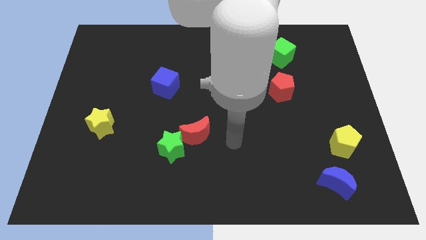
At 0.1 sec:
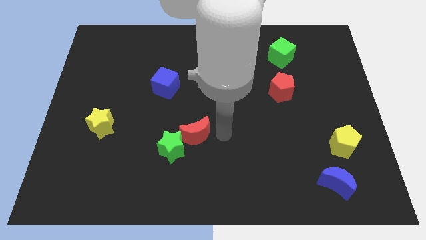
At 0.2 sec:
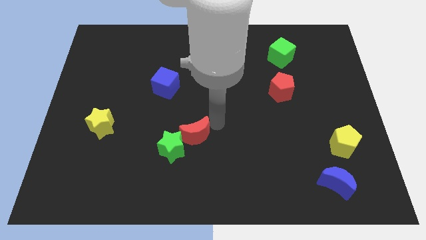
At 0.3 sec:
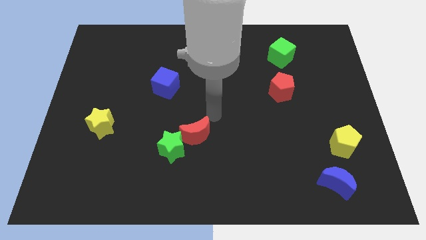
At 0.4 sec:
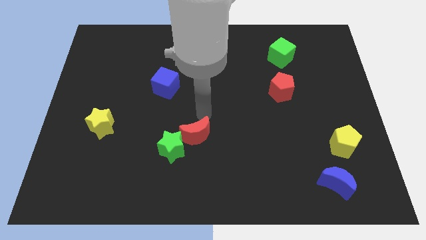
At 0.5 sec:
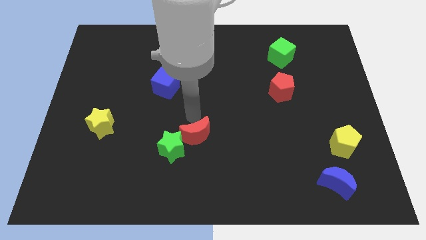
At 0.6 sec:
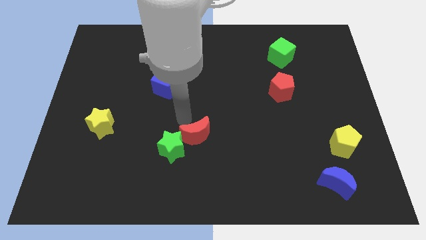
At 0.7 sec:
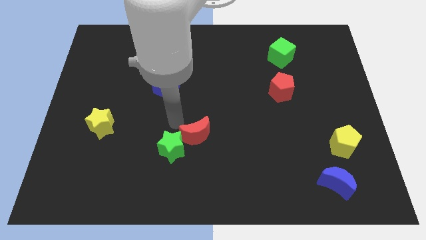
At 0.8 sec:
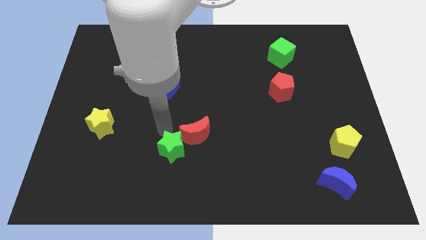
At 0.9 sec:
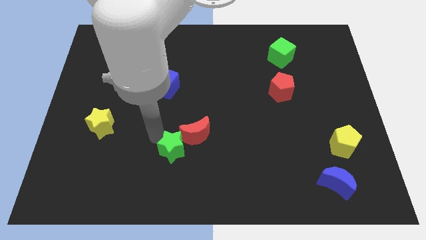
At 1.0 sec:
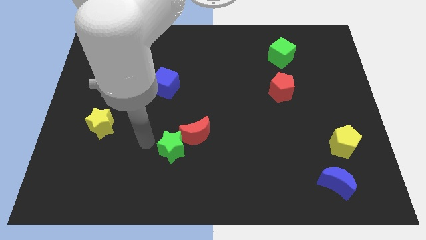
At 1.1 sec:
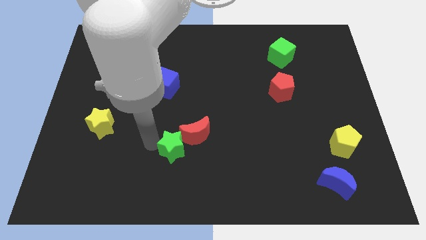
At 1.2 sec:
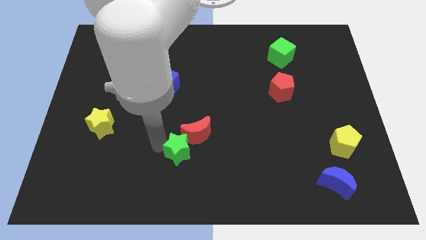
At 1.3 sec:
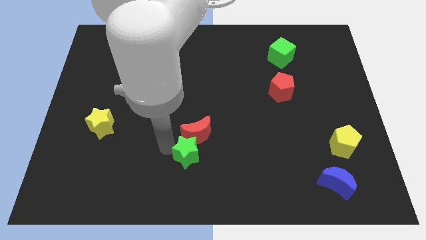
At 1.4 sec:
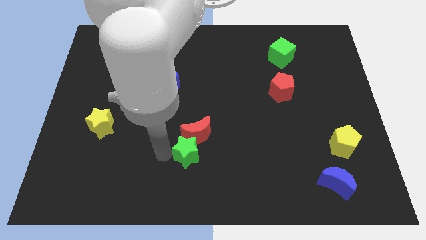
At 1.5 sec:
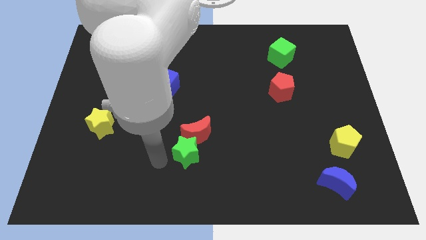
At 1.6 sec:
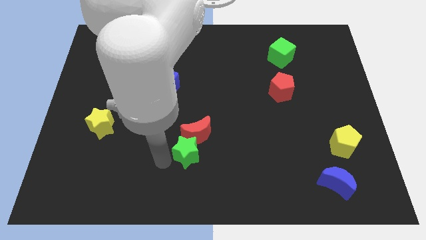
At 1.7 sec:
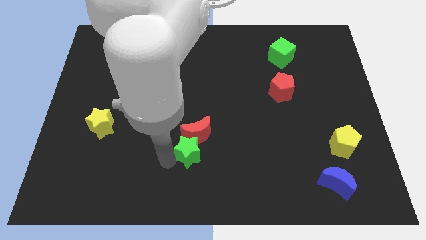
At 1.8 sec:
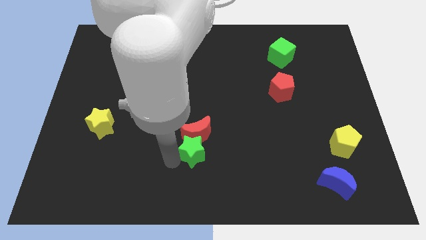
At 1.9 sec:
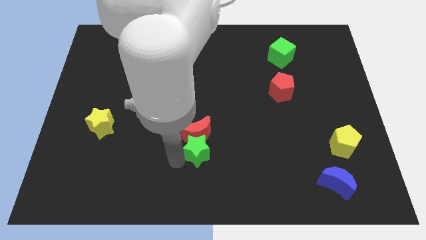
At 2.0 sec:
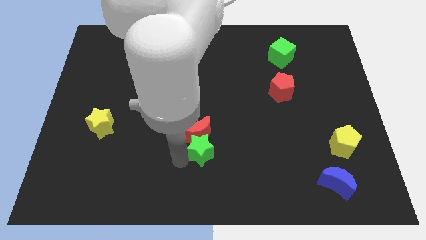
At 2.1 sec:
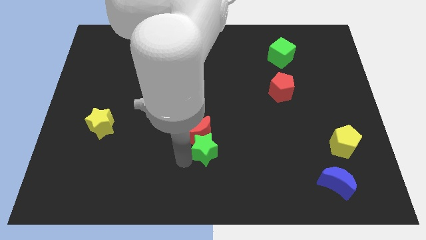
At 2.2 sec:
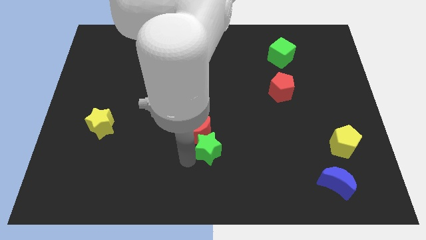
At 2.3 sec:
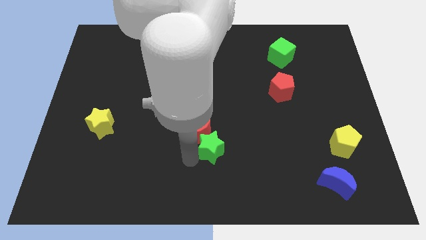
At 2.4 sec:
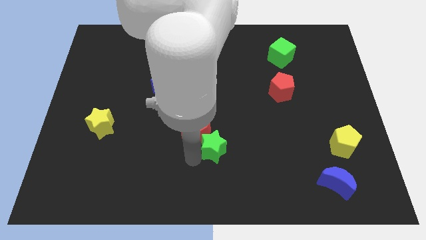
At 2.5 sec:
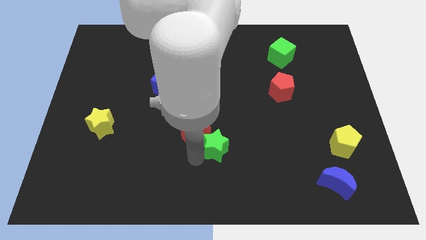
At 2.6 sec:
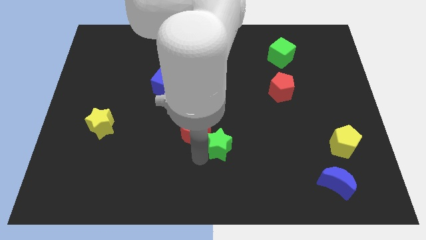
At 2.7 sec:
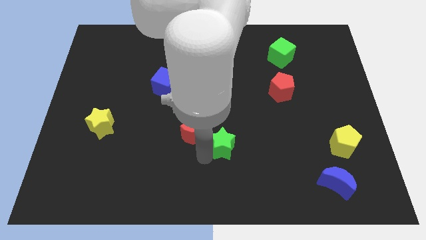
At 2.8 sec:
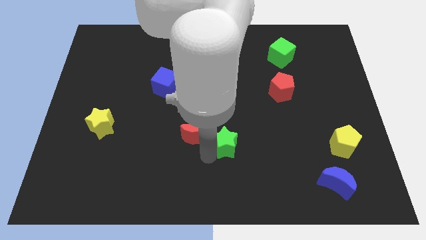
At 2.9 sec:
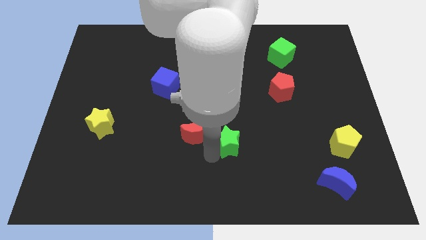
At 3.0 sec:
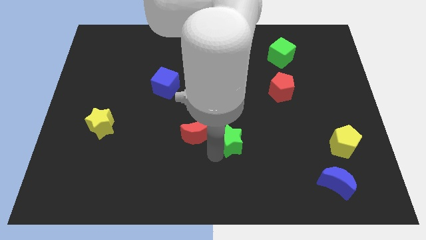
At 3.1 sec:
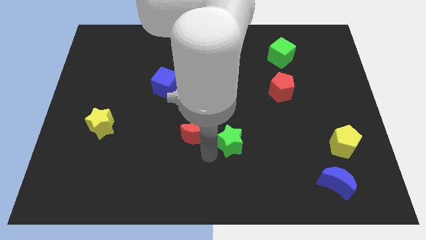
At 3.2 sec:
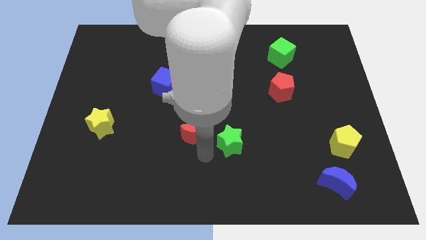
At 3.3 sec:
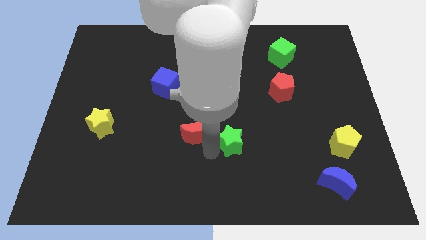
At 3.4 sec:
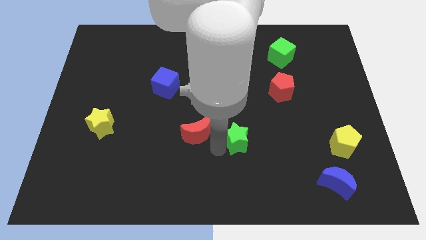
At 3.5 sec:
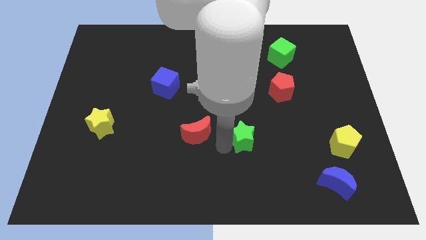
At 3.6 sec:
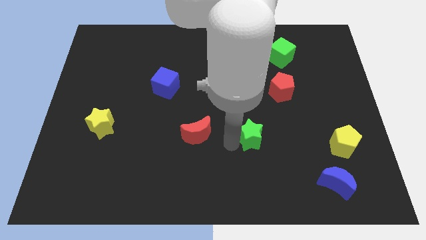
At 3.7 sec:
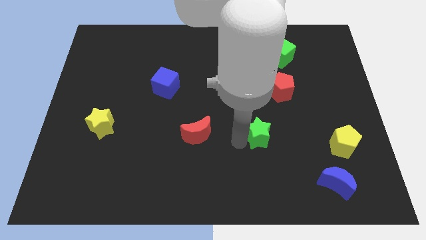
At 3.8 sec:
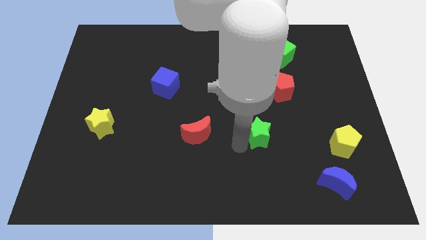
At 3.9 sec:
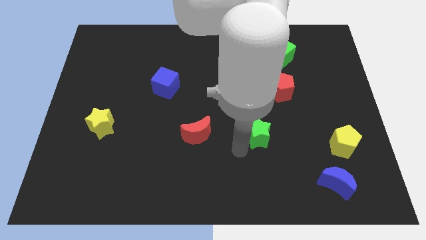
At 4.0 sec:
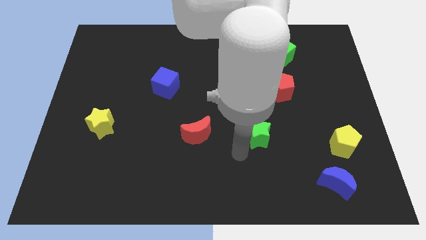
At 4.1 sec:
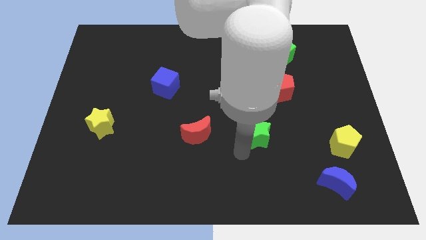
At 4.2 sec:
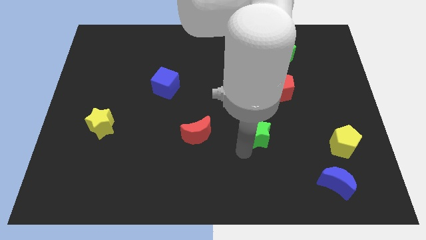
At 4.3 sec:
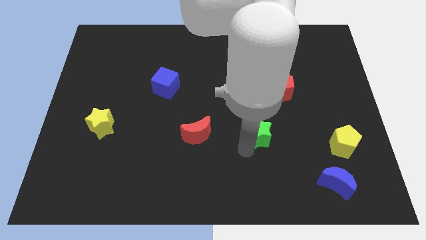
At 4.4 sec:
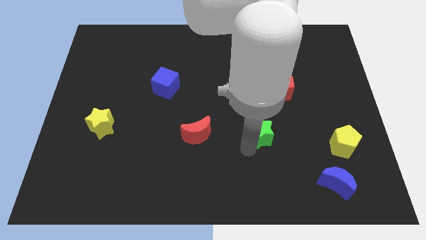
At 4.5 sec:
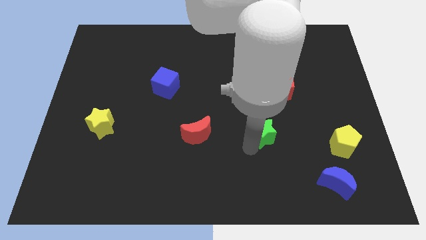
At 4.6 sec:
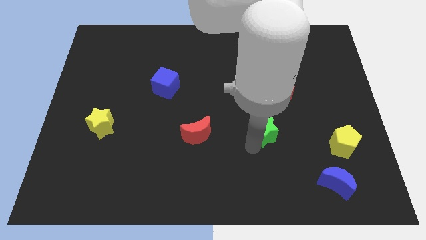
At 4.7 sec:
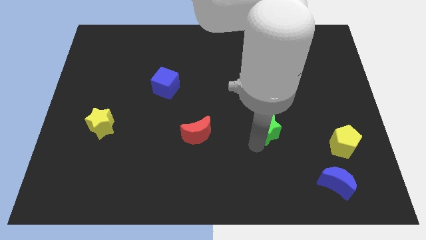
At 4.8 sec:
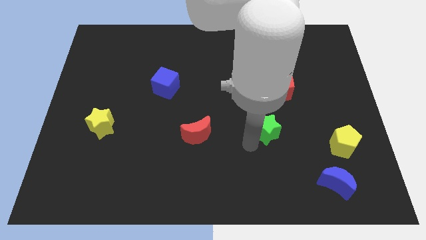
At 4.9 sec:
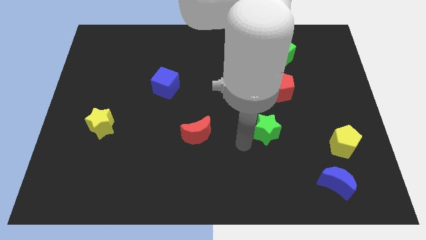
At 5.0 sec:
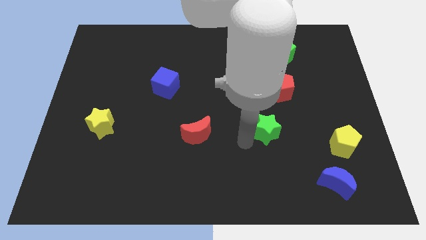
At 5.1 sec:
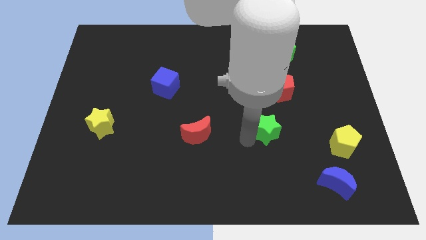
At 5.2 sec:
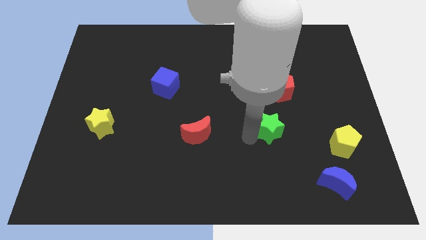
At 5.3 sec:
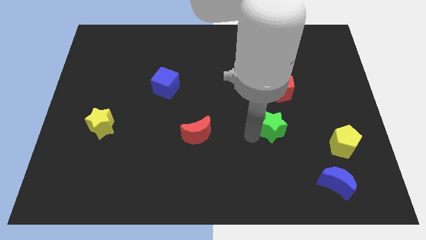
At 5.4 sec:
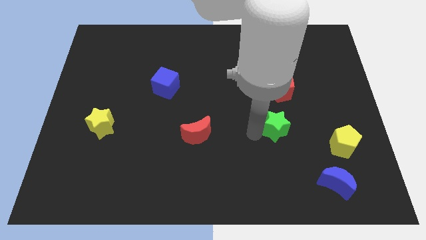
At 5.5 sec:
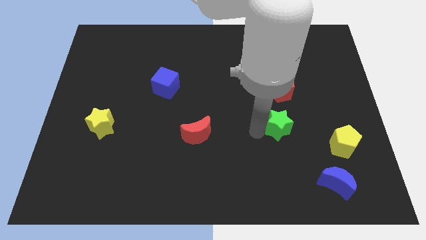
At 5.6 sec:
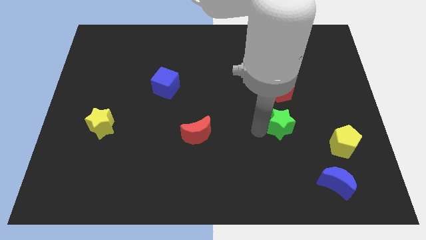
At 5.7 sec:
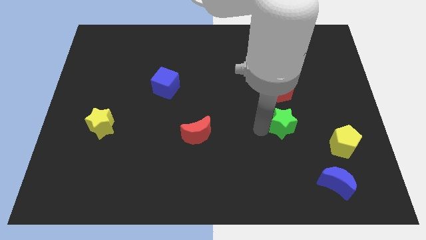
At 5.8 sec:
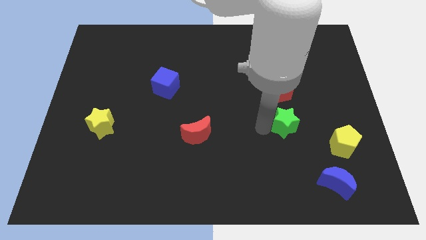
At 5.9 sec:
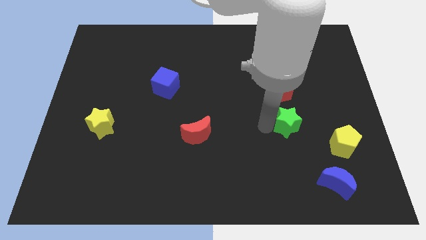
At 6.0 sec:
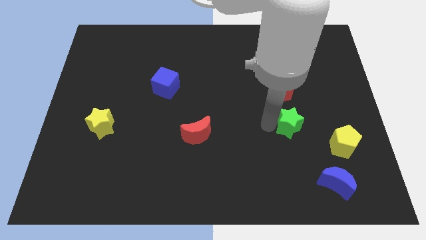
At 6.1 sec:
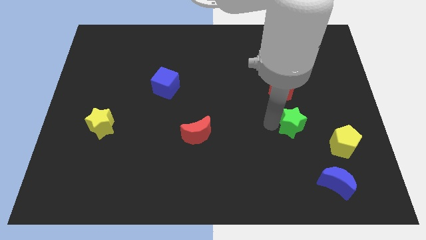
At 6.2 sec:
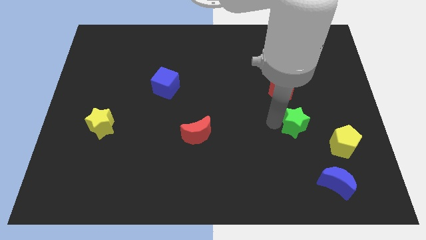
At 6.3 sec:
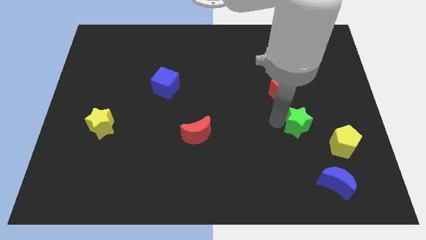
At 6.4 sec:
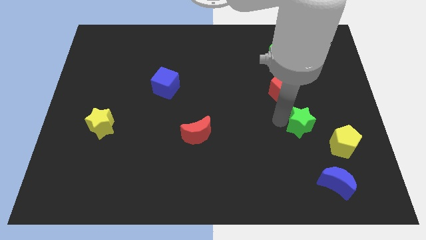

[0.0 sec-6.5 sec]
put the green star to the bottom right side of the red pentagon

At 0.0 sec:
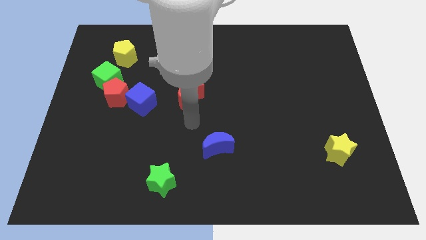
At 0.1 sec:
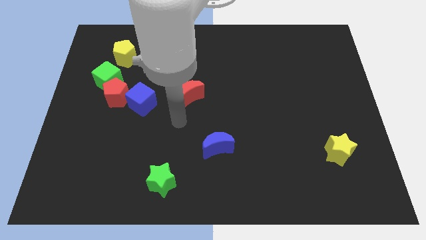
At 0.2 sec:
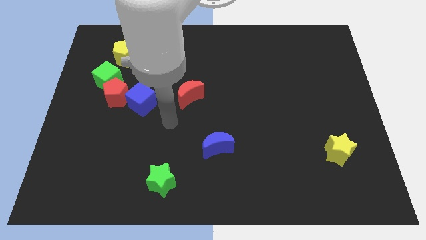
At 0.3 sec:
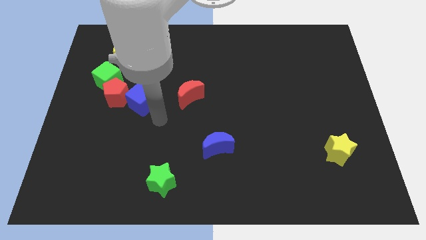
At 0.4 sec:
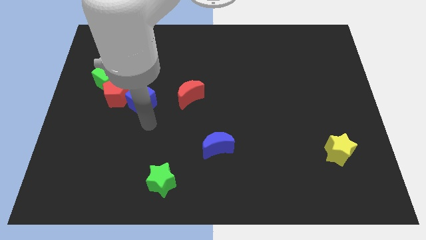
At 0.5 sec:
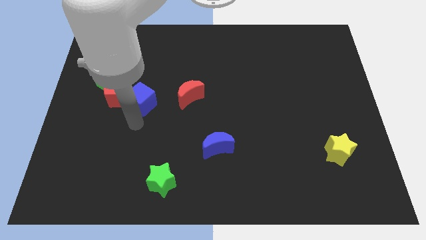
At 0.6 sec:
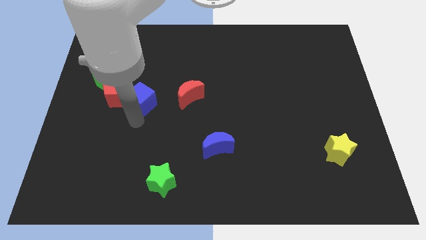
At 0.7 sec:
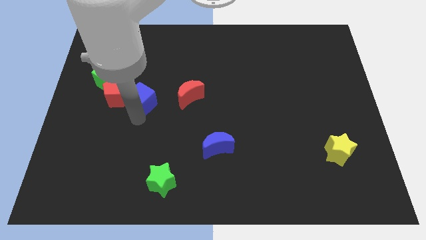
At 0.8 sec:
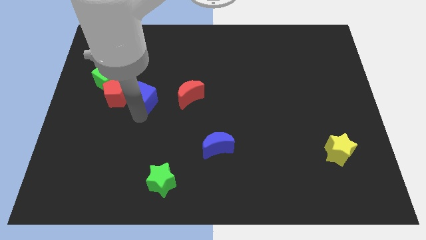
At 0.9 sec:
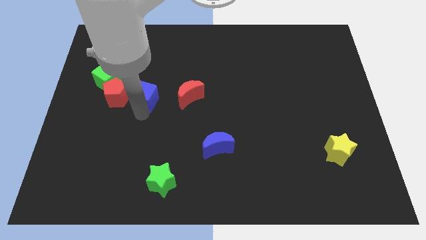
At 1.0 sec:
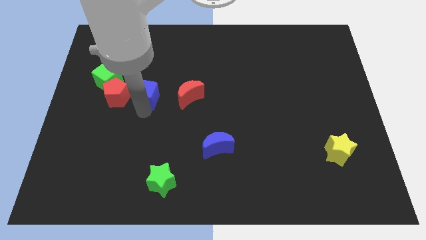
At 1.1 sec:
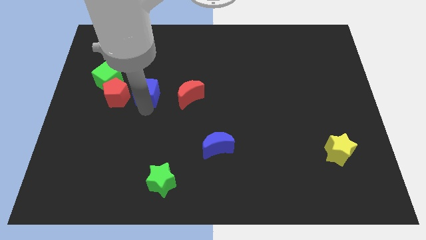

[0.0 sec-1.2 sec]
put the blue cube to the right side of the green cube
